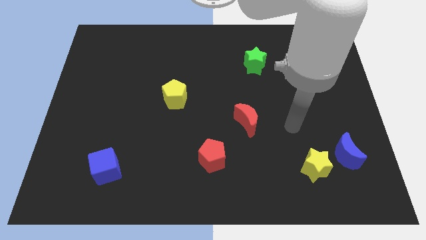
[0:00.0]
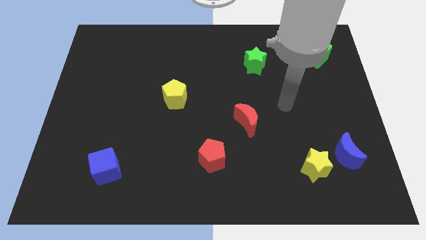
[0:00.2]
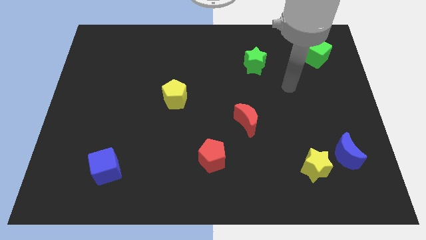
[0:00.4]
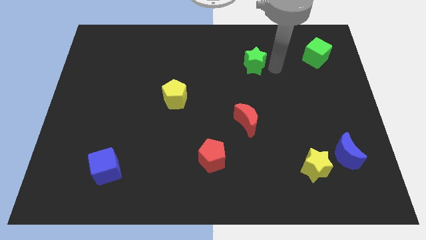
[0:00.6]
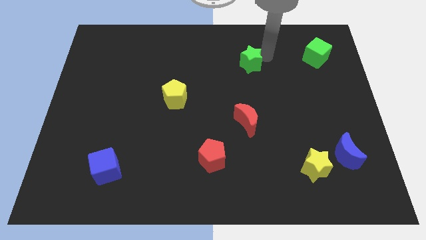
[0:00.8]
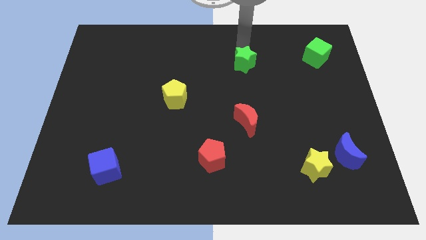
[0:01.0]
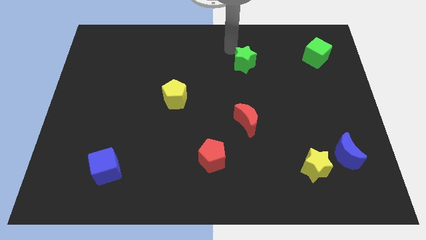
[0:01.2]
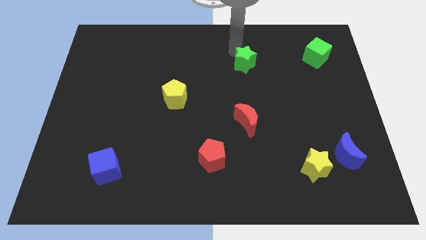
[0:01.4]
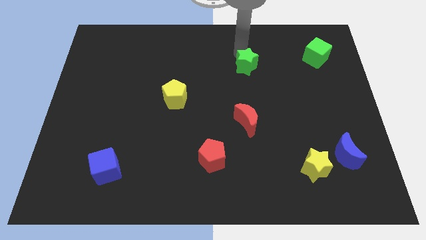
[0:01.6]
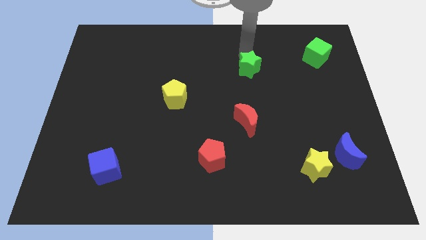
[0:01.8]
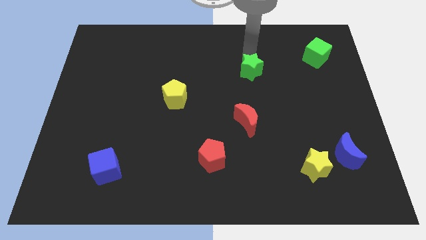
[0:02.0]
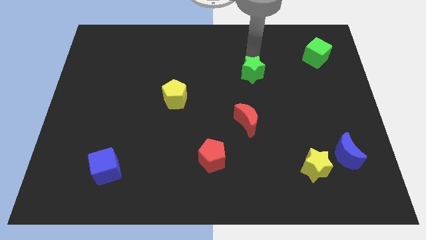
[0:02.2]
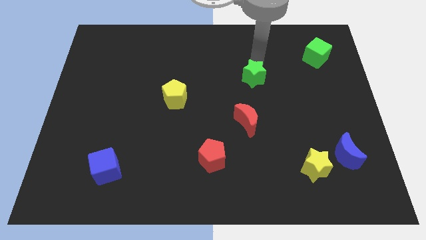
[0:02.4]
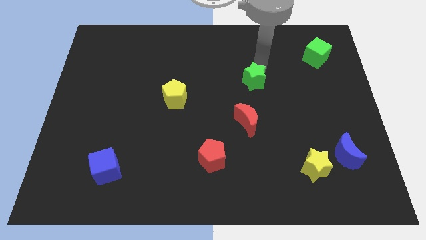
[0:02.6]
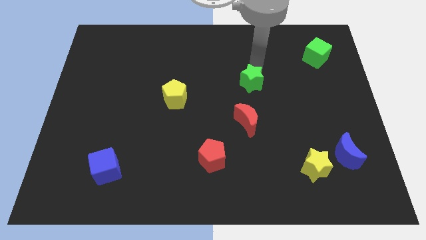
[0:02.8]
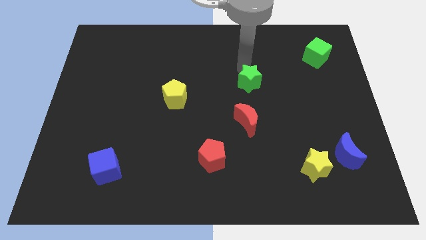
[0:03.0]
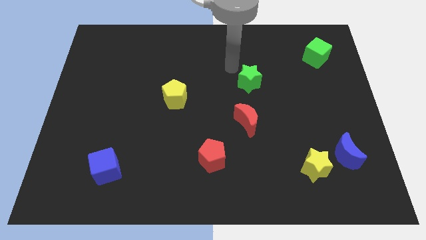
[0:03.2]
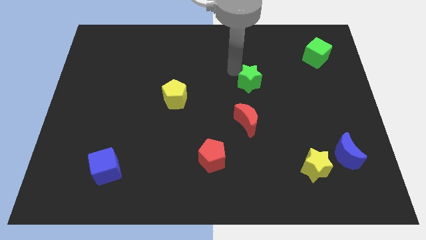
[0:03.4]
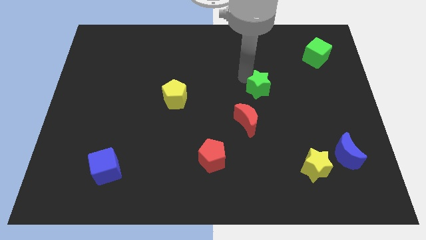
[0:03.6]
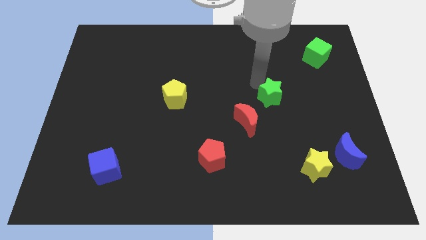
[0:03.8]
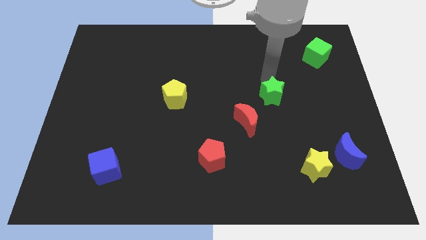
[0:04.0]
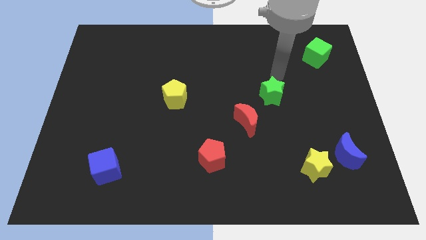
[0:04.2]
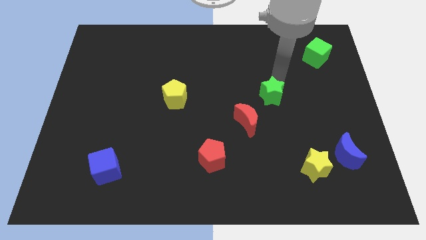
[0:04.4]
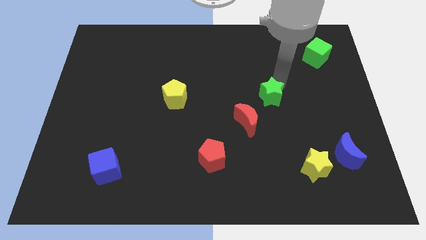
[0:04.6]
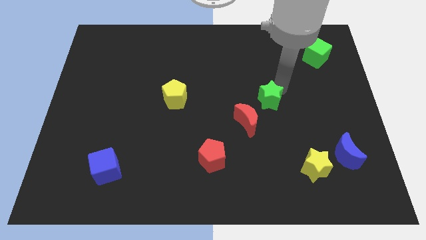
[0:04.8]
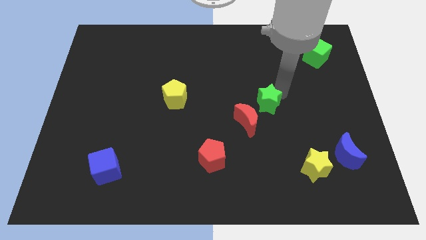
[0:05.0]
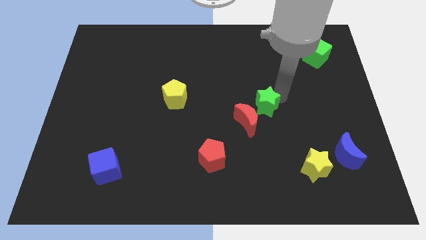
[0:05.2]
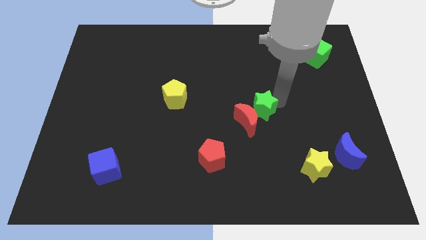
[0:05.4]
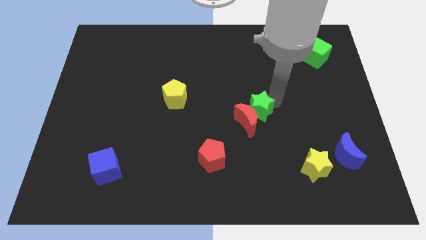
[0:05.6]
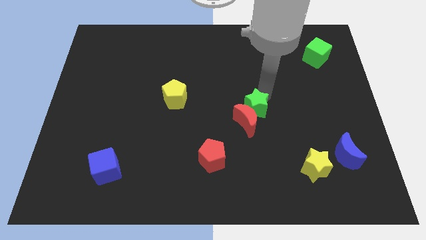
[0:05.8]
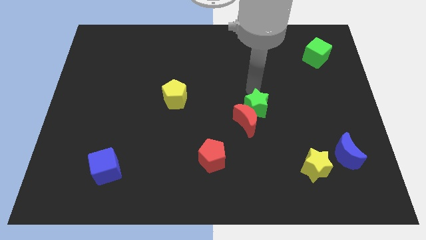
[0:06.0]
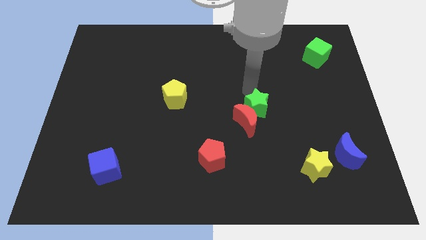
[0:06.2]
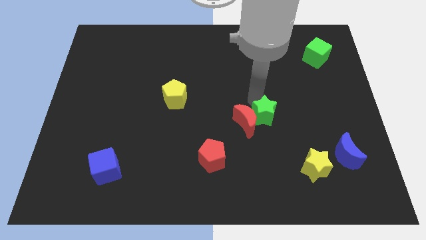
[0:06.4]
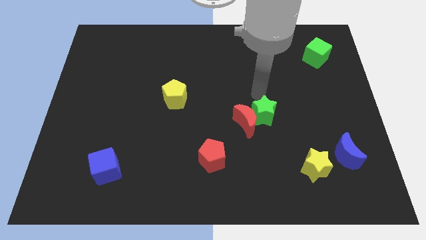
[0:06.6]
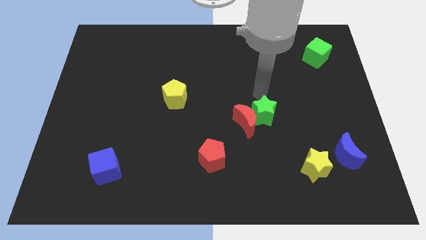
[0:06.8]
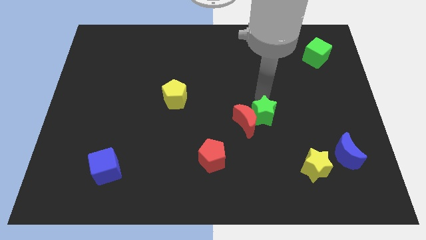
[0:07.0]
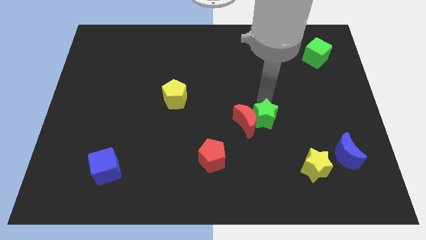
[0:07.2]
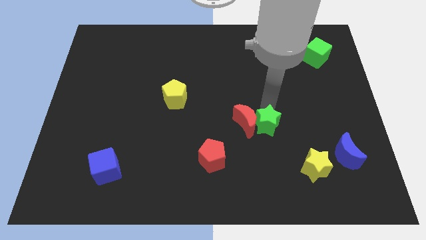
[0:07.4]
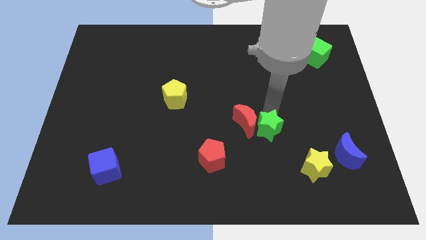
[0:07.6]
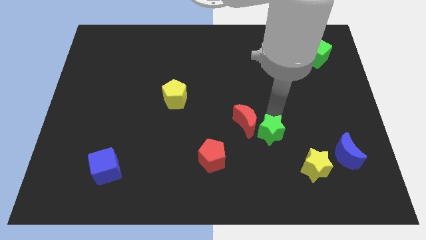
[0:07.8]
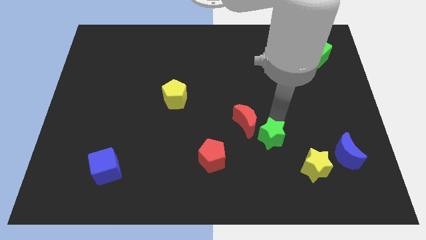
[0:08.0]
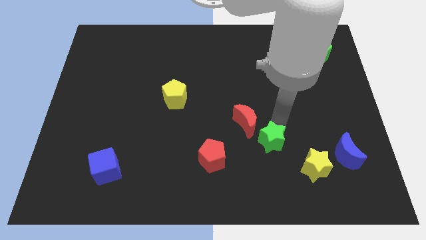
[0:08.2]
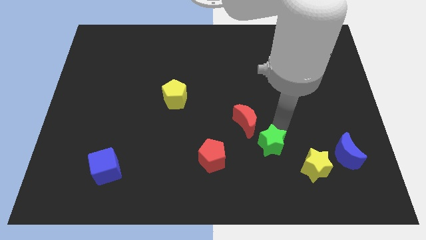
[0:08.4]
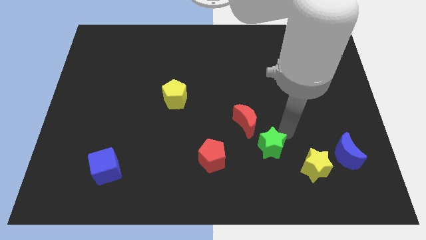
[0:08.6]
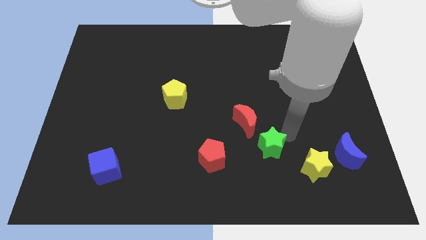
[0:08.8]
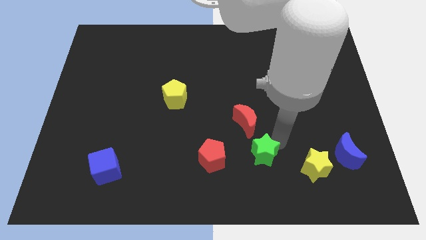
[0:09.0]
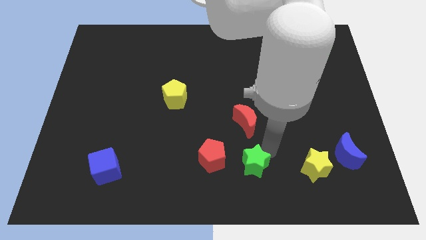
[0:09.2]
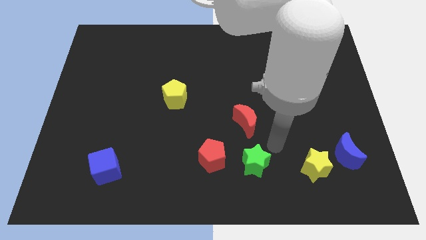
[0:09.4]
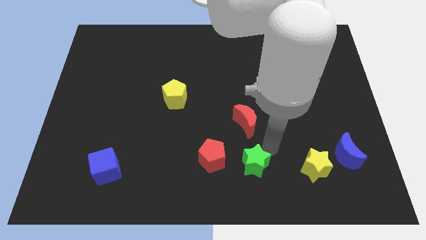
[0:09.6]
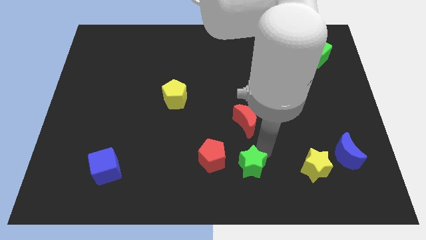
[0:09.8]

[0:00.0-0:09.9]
slide the green star to the bottom right of the red pentagon

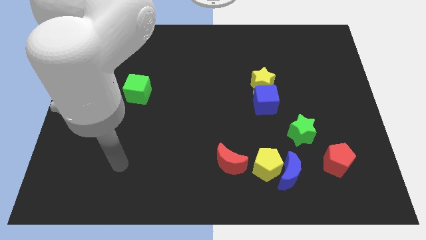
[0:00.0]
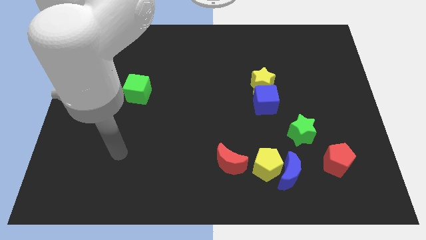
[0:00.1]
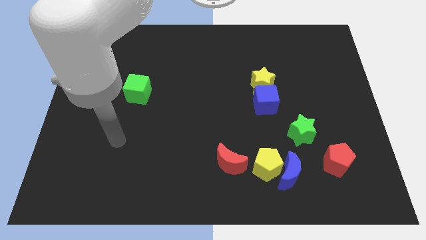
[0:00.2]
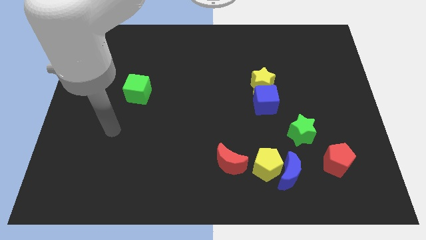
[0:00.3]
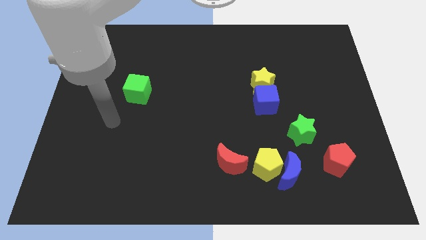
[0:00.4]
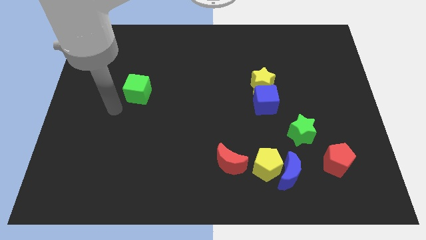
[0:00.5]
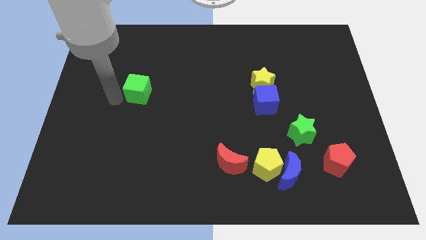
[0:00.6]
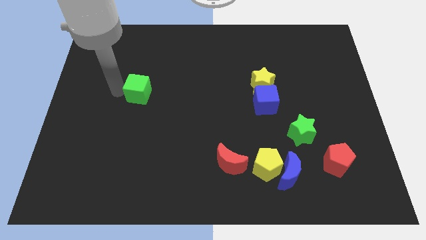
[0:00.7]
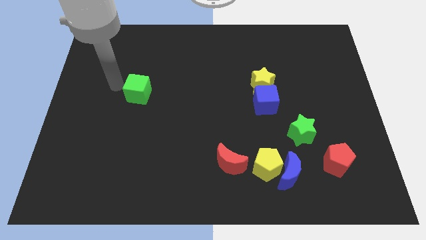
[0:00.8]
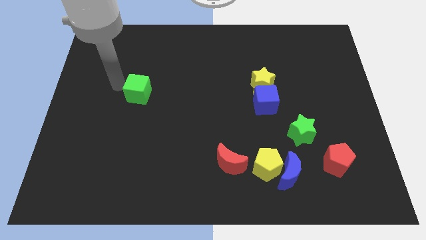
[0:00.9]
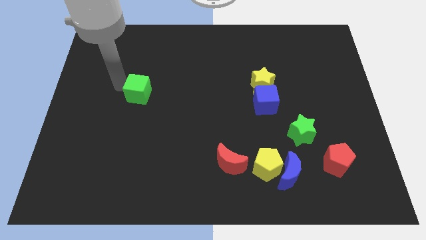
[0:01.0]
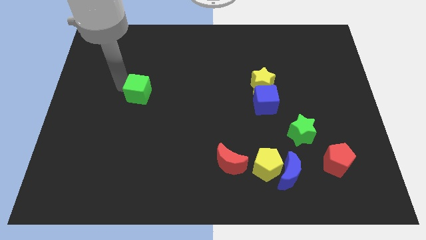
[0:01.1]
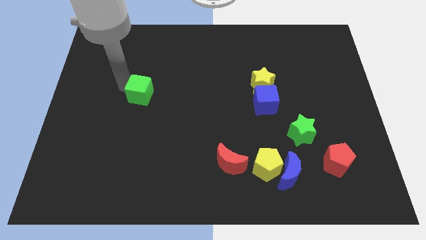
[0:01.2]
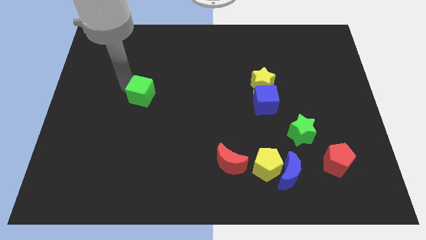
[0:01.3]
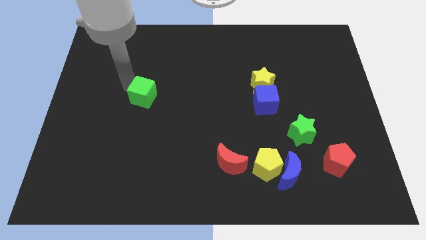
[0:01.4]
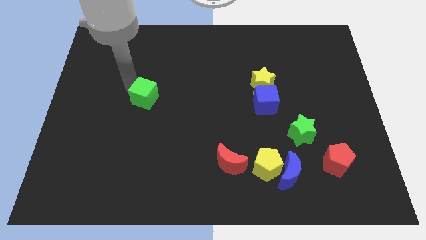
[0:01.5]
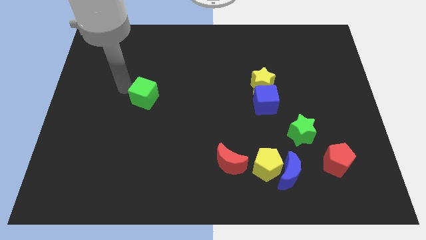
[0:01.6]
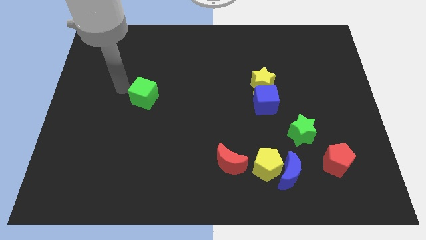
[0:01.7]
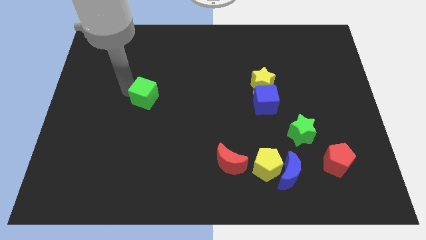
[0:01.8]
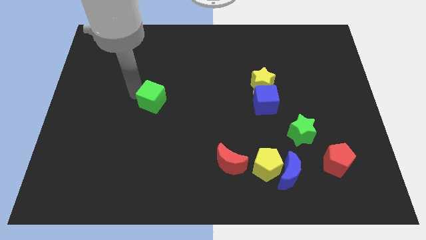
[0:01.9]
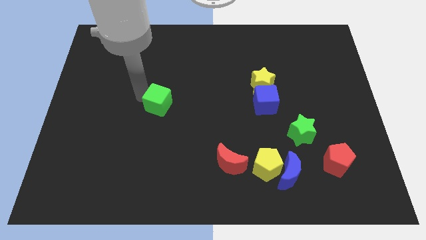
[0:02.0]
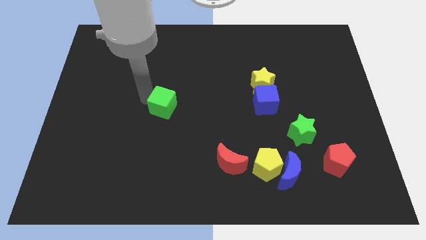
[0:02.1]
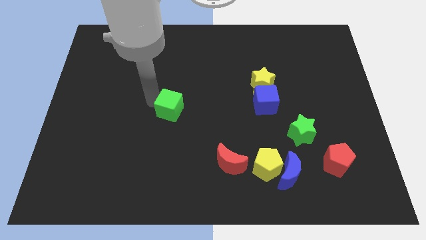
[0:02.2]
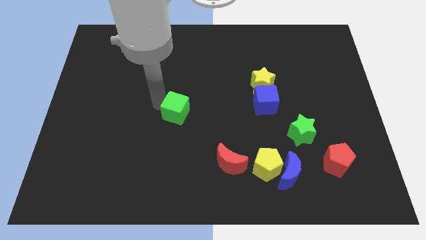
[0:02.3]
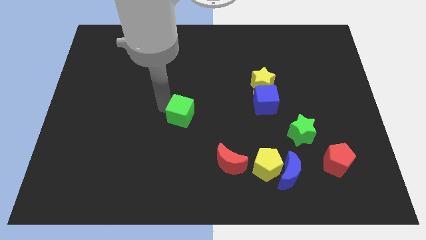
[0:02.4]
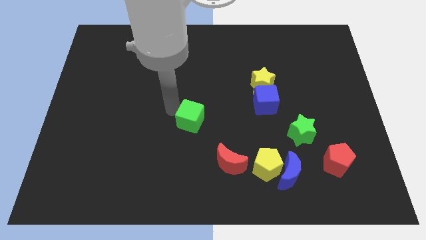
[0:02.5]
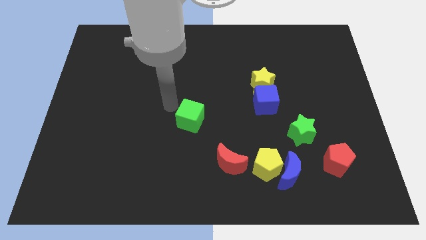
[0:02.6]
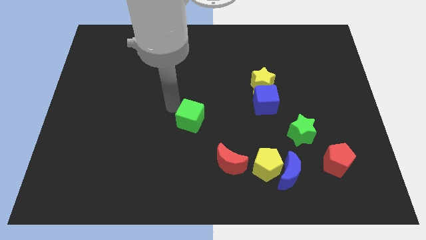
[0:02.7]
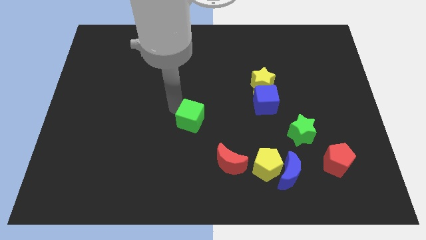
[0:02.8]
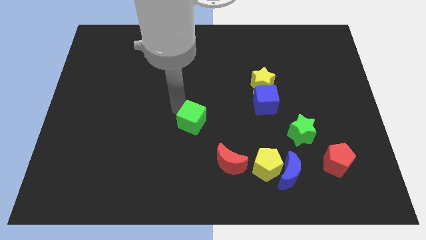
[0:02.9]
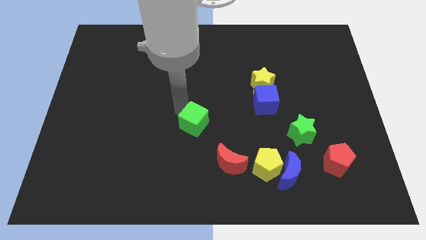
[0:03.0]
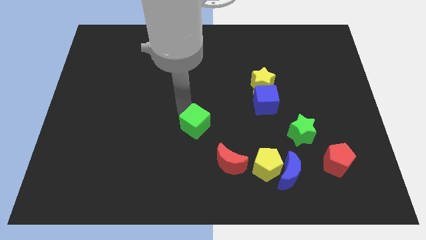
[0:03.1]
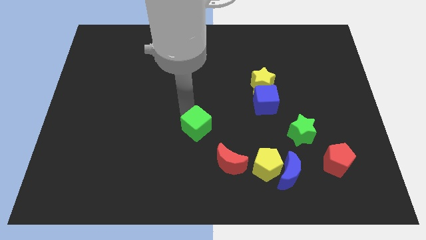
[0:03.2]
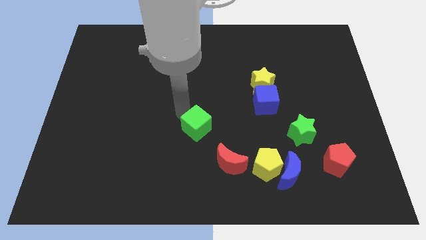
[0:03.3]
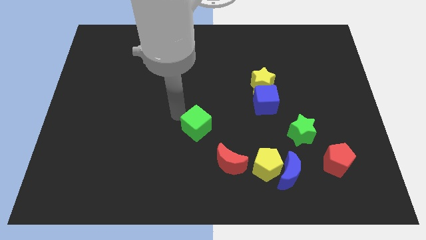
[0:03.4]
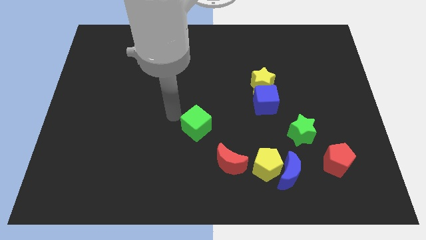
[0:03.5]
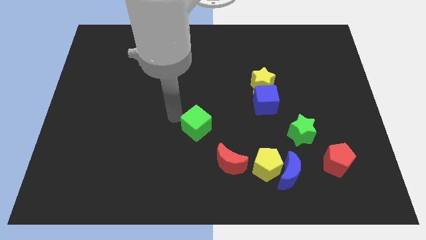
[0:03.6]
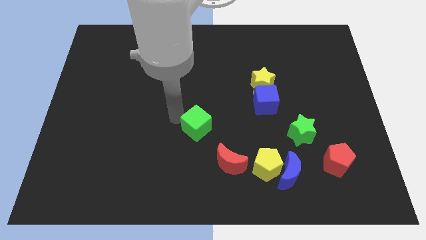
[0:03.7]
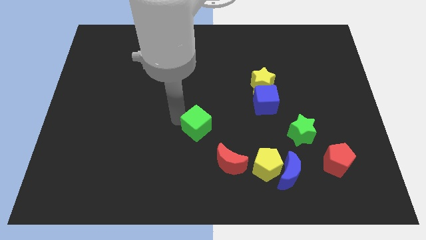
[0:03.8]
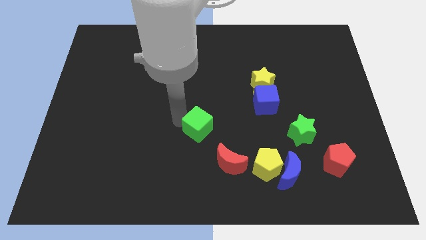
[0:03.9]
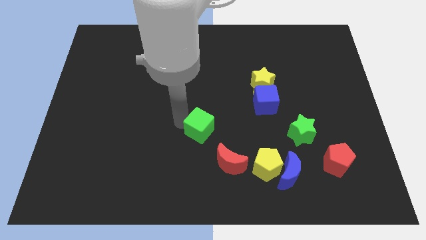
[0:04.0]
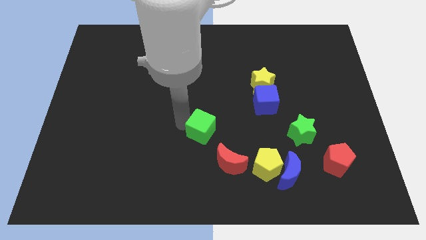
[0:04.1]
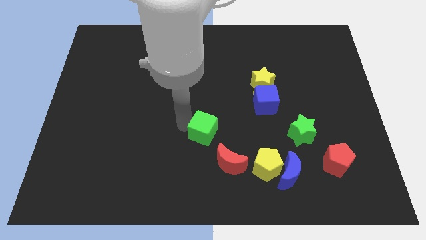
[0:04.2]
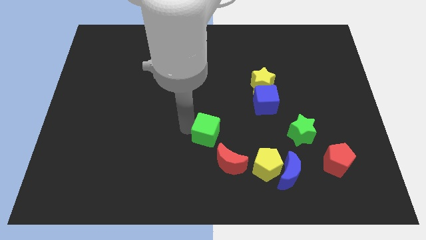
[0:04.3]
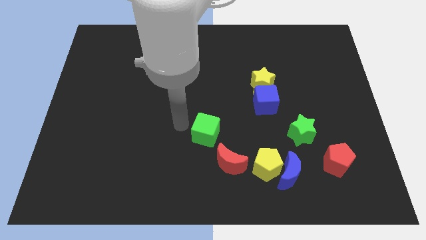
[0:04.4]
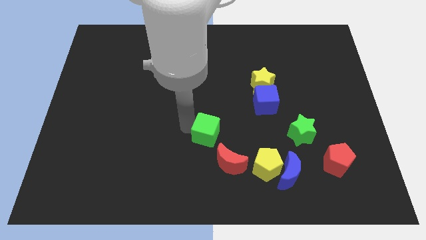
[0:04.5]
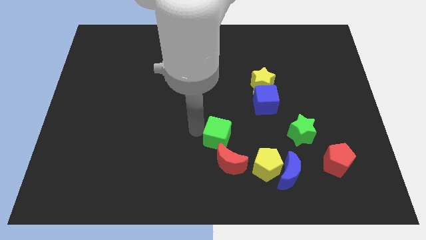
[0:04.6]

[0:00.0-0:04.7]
put the green cube to the top left of the yellow pentagon
